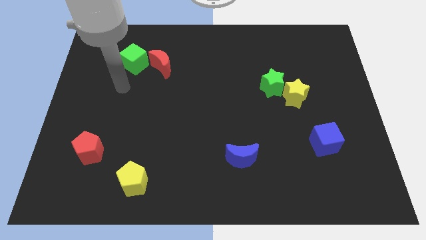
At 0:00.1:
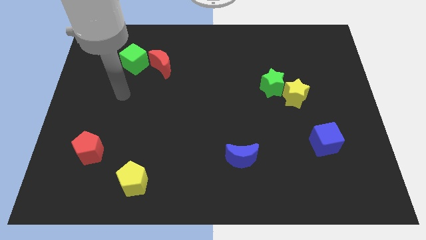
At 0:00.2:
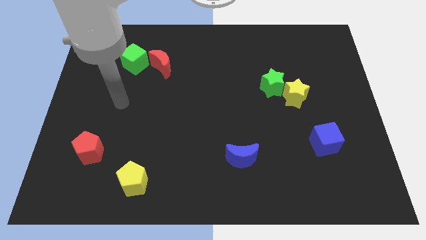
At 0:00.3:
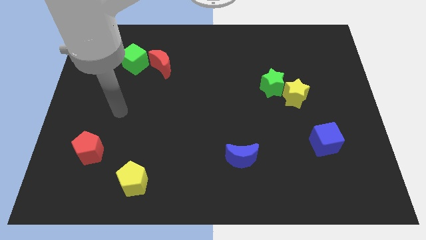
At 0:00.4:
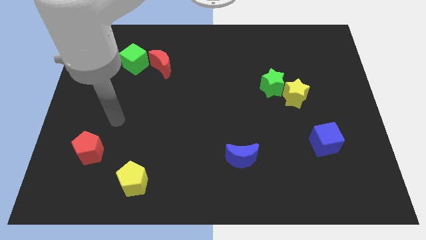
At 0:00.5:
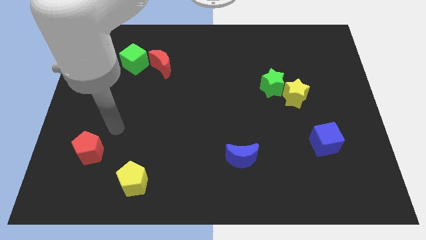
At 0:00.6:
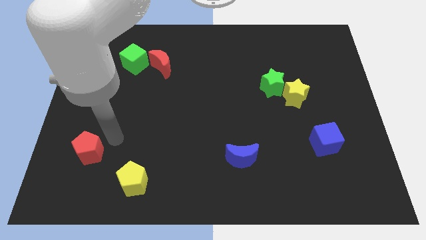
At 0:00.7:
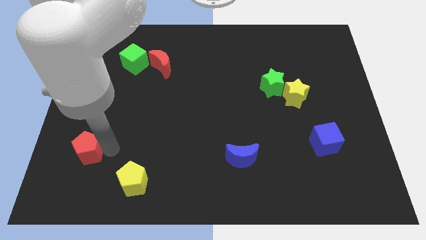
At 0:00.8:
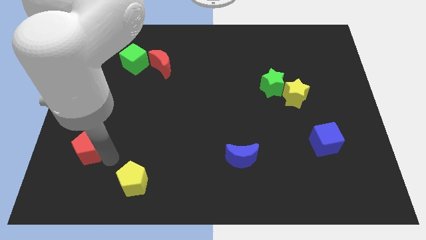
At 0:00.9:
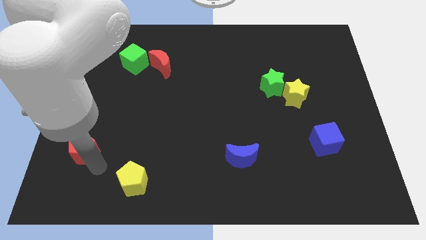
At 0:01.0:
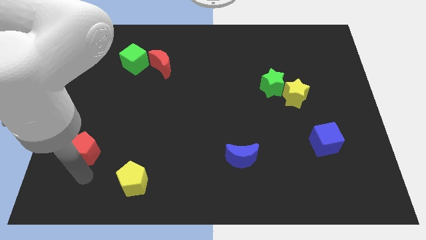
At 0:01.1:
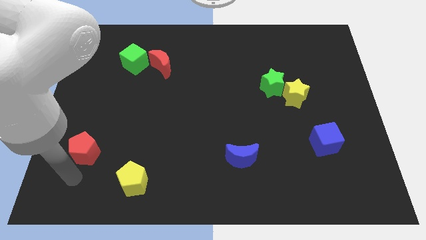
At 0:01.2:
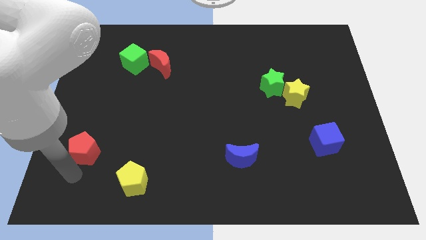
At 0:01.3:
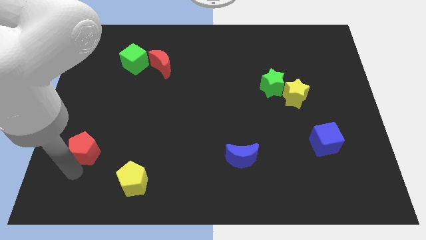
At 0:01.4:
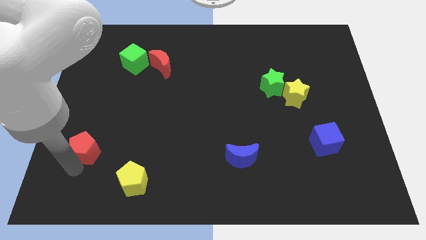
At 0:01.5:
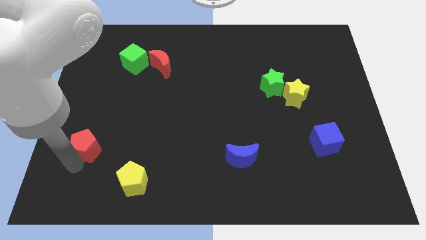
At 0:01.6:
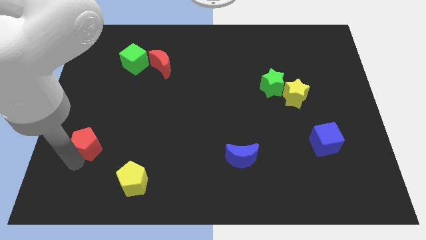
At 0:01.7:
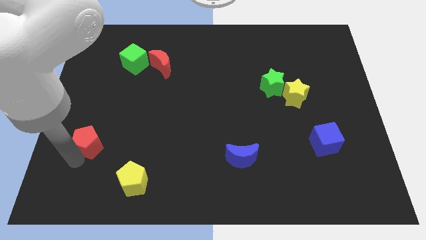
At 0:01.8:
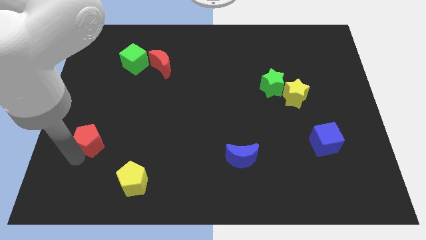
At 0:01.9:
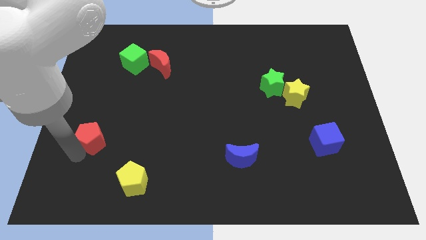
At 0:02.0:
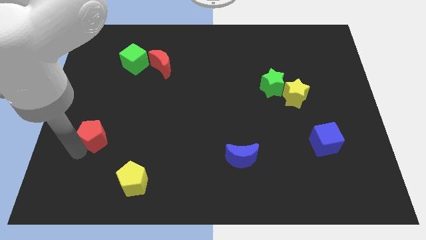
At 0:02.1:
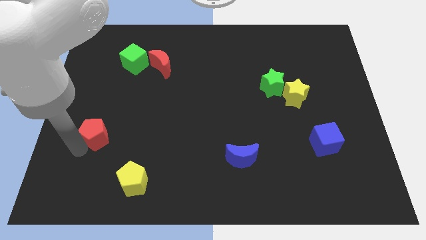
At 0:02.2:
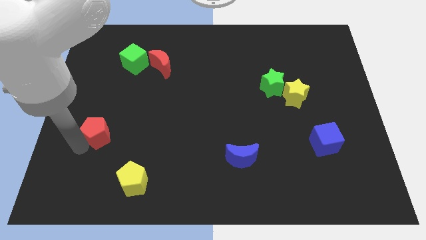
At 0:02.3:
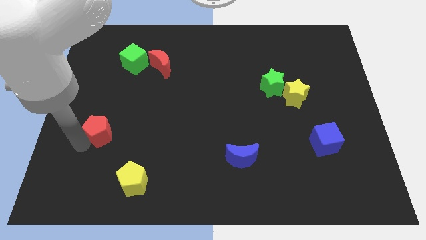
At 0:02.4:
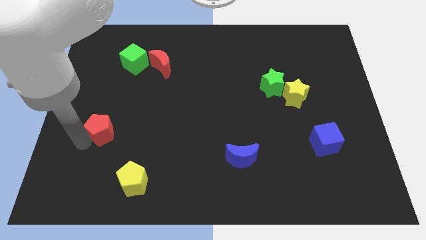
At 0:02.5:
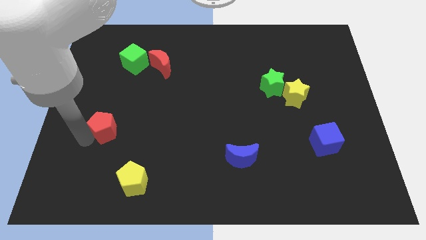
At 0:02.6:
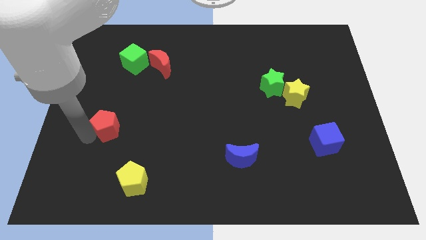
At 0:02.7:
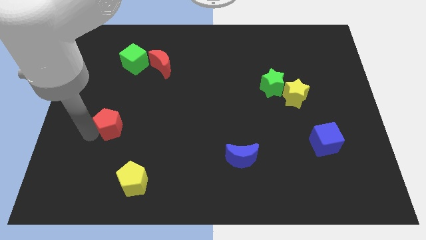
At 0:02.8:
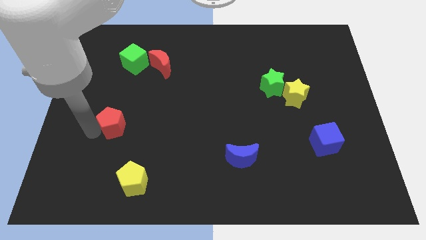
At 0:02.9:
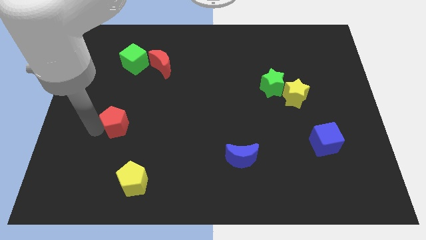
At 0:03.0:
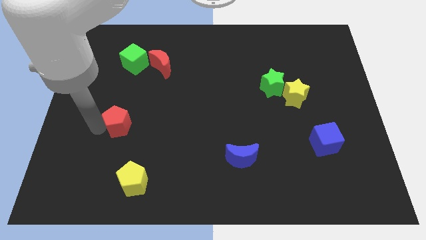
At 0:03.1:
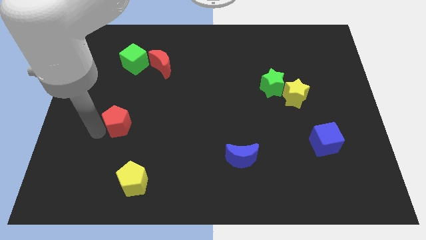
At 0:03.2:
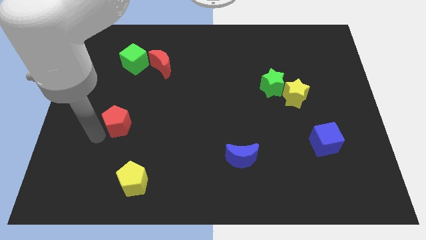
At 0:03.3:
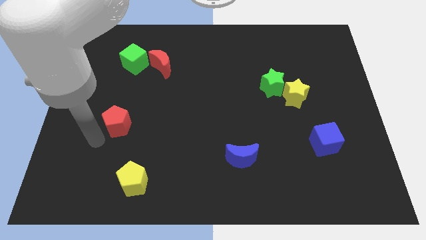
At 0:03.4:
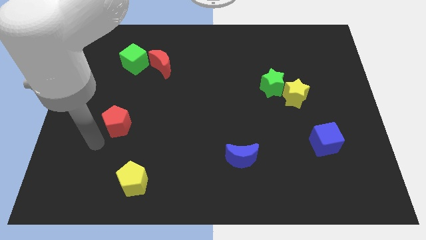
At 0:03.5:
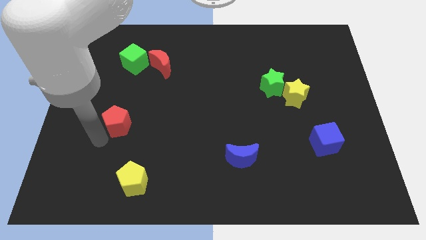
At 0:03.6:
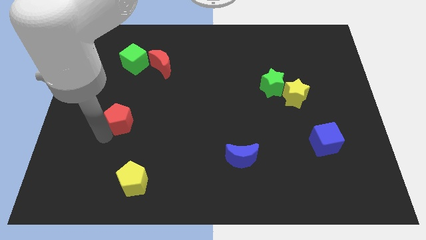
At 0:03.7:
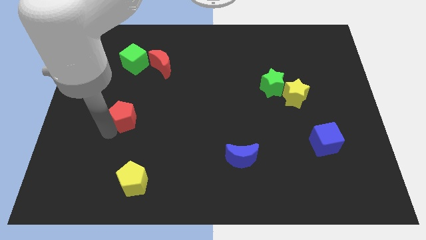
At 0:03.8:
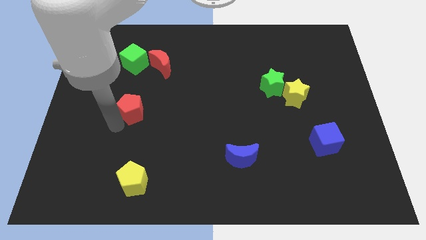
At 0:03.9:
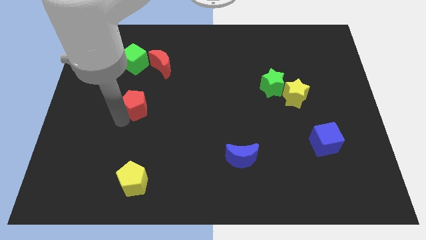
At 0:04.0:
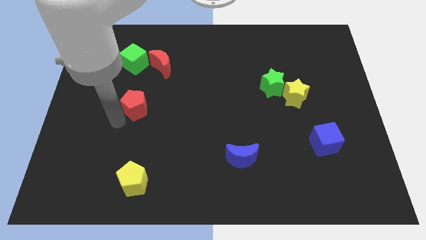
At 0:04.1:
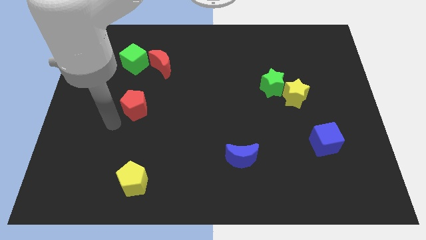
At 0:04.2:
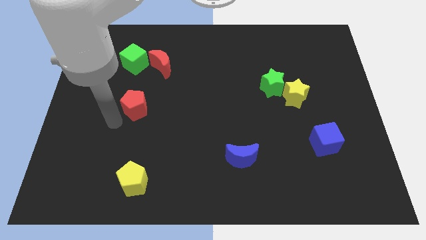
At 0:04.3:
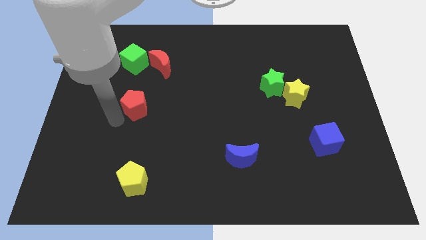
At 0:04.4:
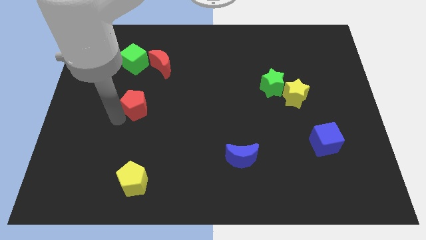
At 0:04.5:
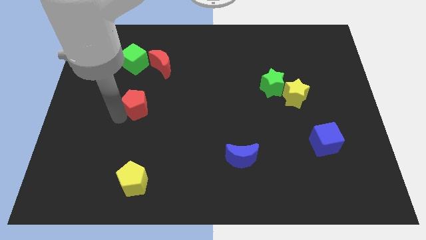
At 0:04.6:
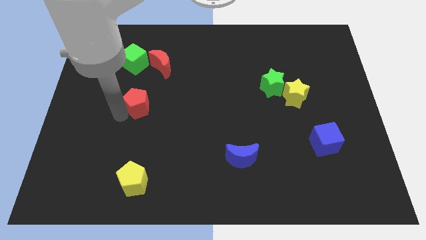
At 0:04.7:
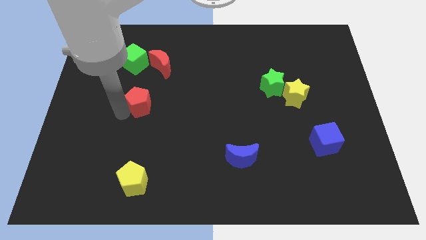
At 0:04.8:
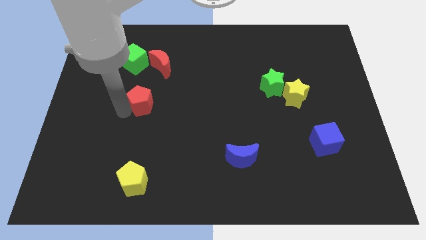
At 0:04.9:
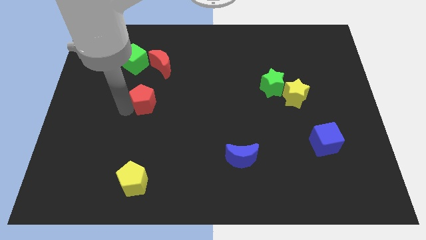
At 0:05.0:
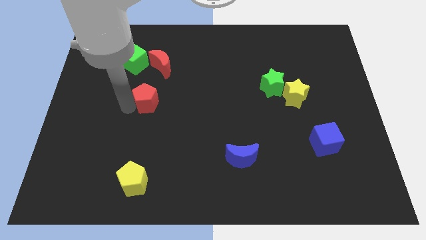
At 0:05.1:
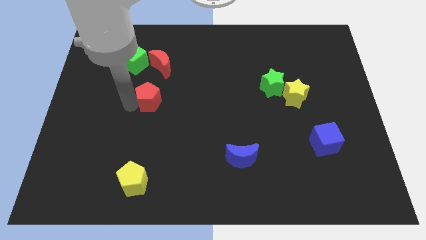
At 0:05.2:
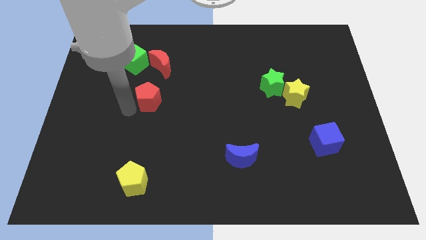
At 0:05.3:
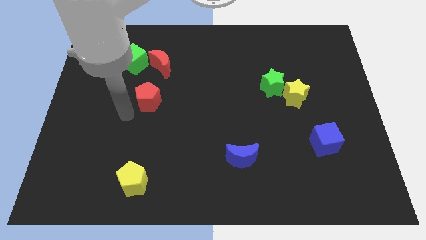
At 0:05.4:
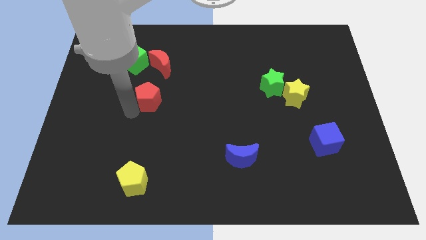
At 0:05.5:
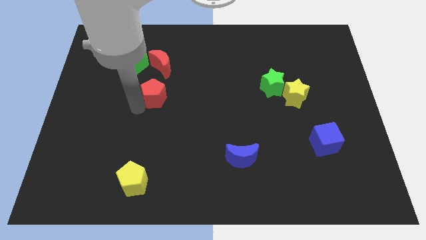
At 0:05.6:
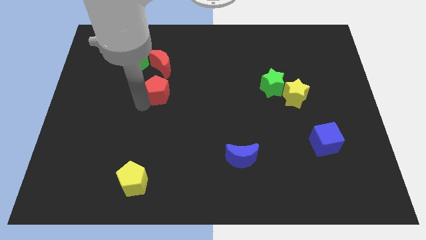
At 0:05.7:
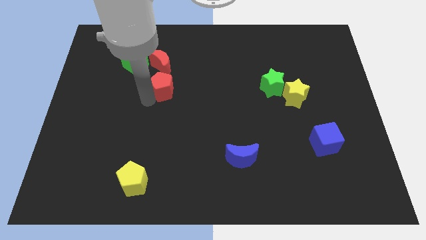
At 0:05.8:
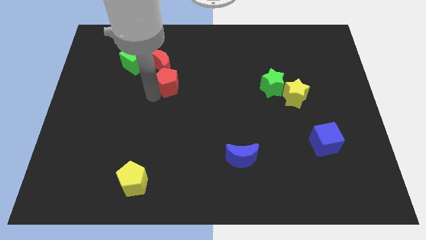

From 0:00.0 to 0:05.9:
put the red pentagon to the bottom right side of the red moon

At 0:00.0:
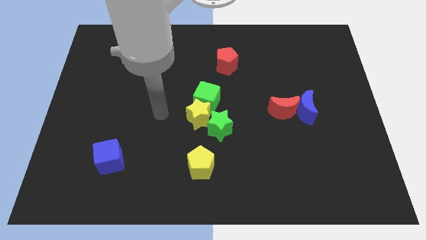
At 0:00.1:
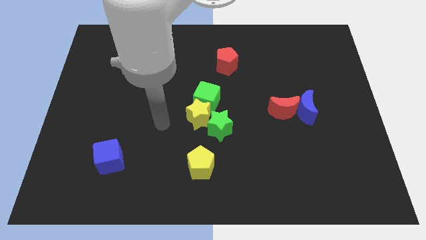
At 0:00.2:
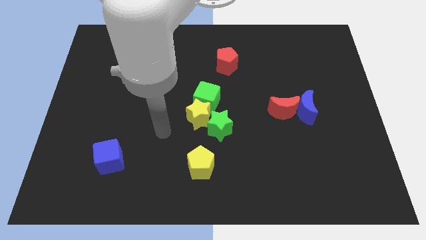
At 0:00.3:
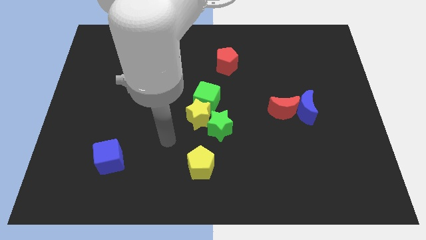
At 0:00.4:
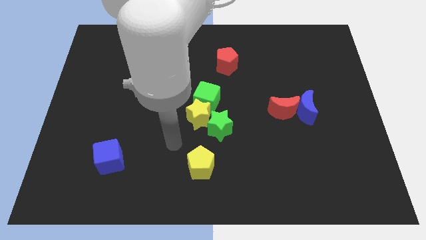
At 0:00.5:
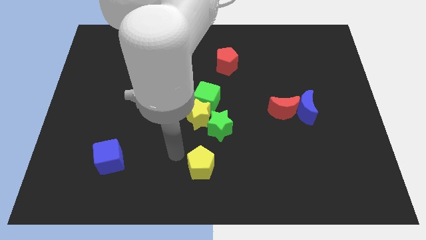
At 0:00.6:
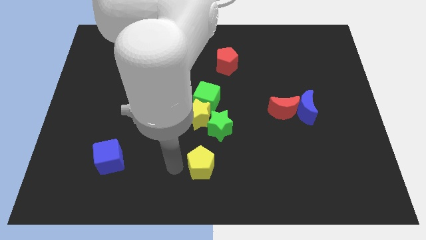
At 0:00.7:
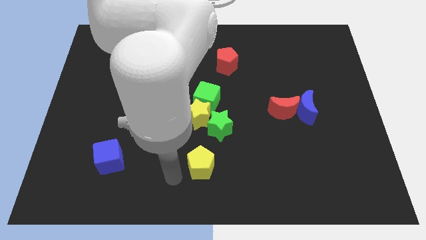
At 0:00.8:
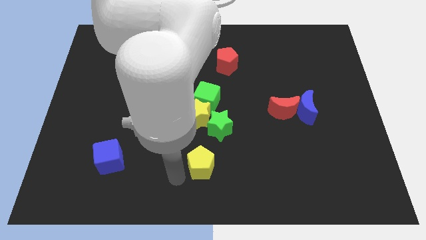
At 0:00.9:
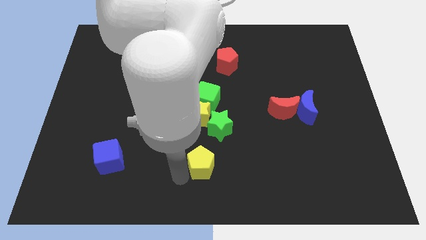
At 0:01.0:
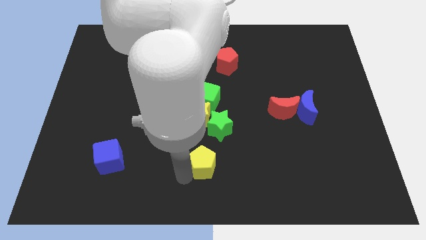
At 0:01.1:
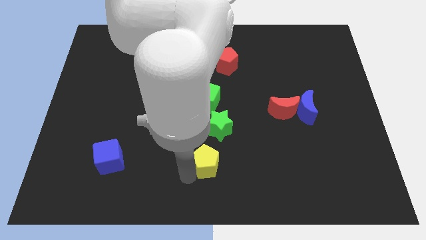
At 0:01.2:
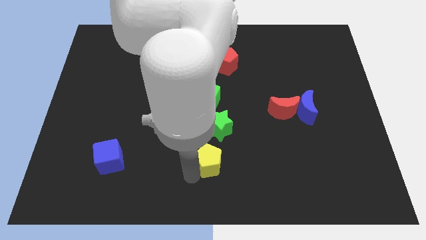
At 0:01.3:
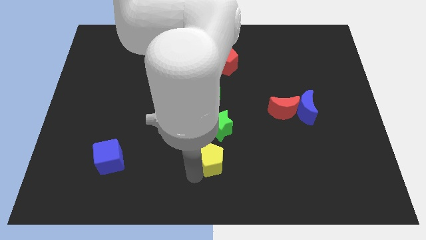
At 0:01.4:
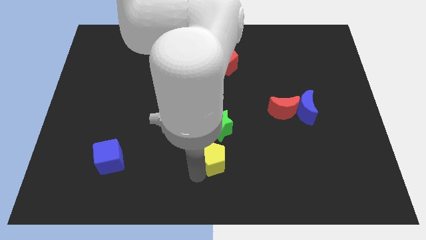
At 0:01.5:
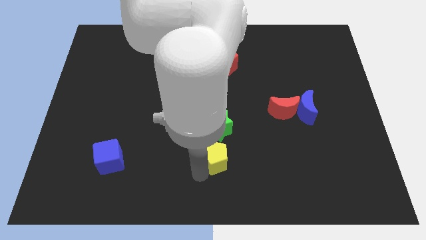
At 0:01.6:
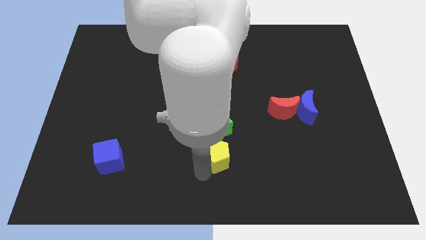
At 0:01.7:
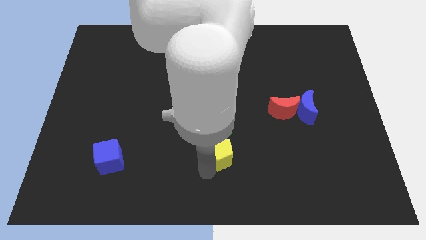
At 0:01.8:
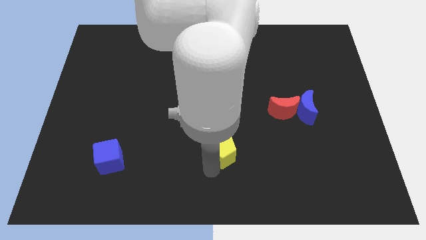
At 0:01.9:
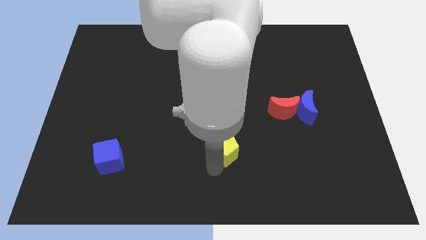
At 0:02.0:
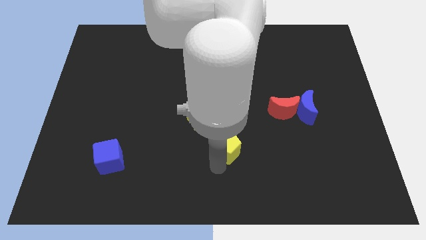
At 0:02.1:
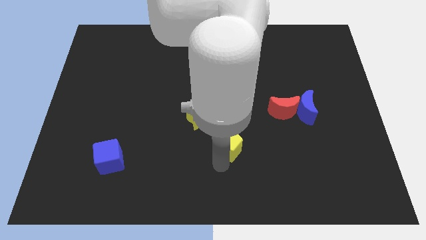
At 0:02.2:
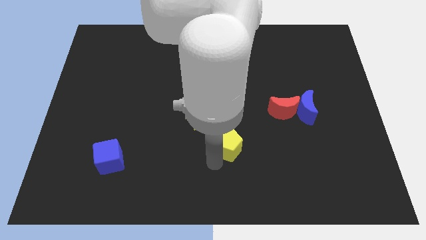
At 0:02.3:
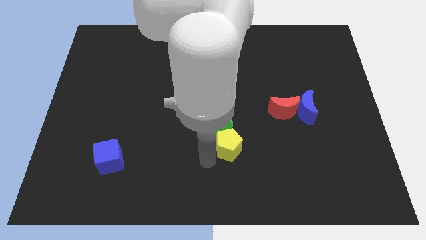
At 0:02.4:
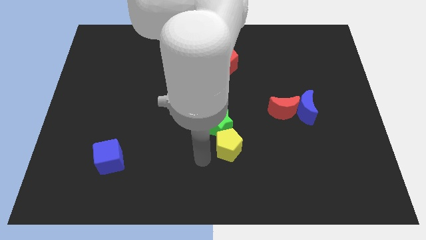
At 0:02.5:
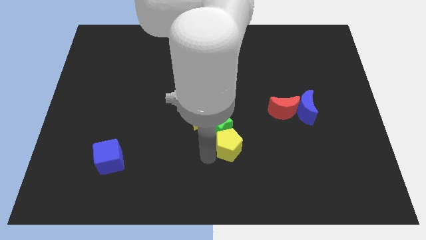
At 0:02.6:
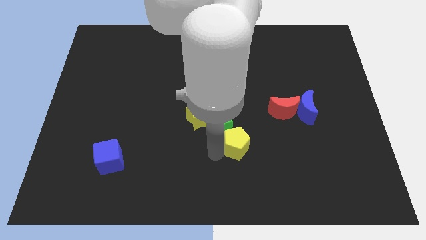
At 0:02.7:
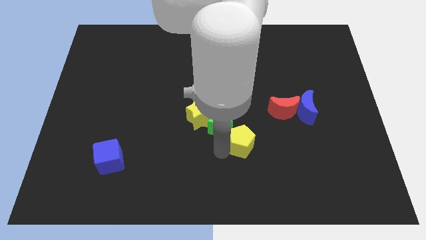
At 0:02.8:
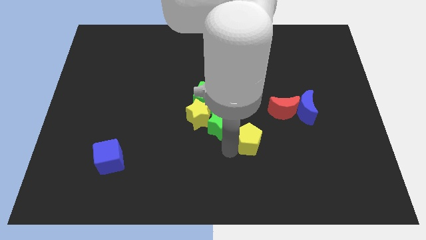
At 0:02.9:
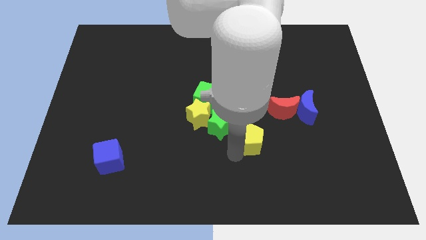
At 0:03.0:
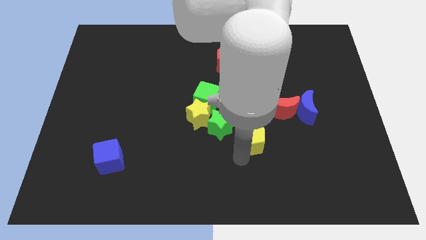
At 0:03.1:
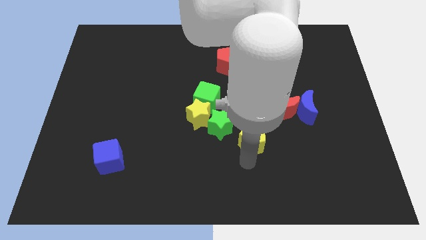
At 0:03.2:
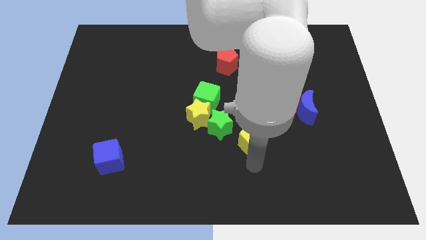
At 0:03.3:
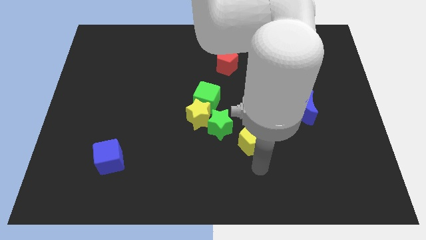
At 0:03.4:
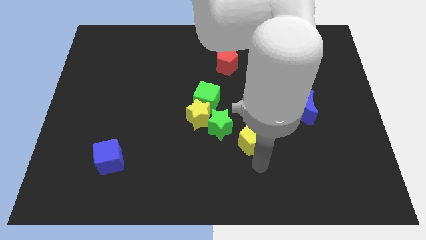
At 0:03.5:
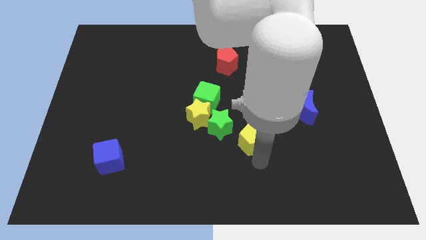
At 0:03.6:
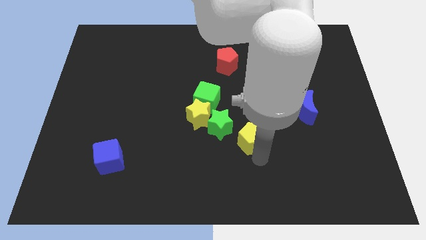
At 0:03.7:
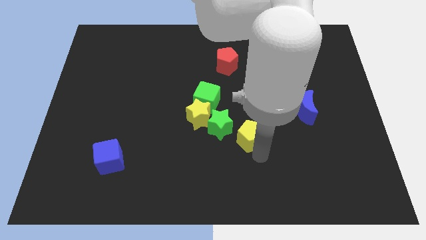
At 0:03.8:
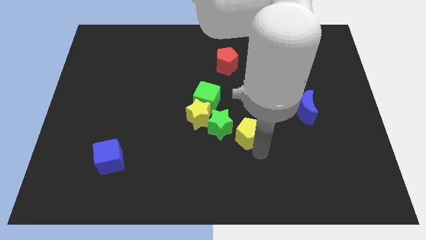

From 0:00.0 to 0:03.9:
slide the yellow pentagon to the right of the yellow star
